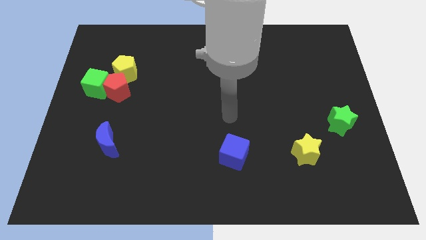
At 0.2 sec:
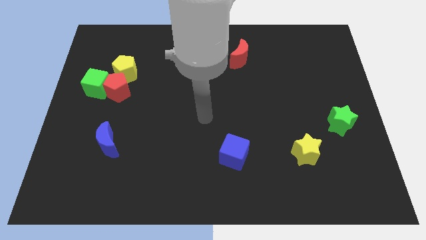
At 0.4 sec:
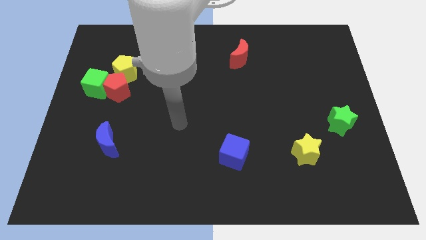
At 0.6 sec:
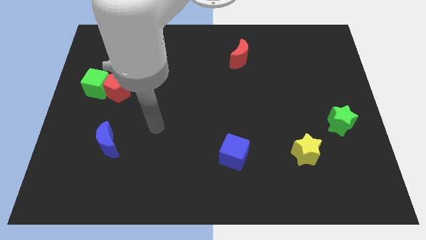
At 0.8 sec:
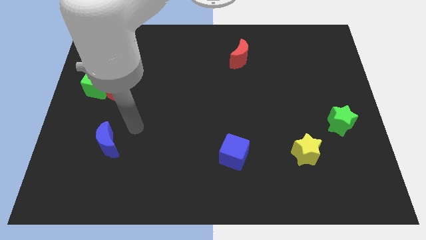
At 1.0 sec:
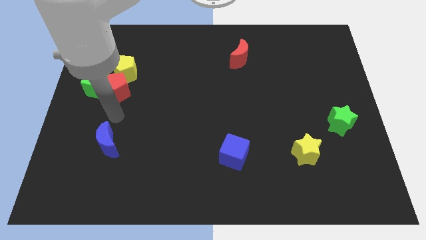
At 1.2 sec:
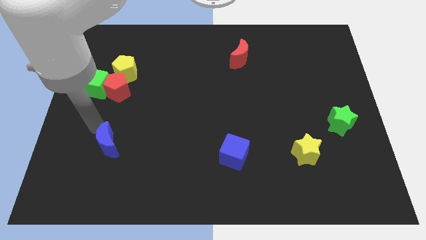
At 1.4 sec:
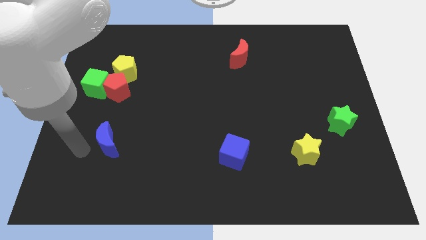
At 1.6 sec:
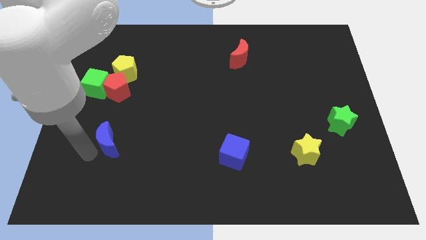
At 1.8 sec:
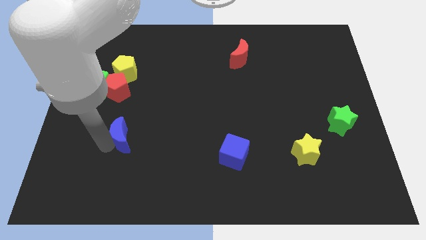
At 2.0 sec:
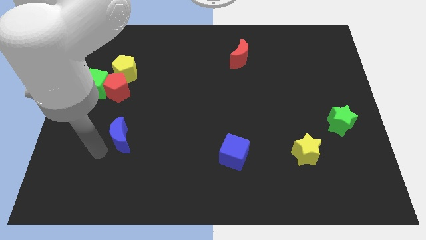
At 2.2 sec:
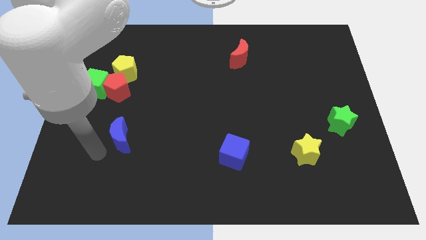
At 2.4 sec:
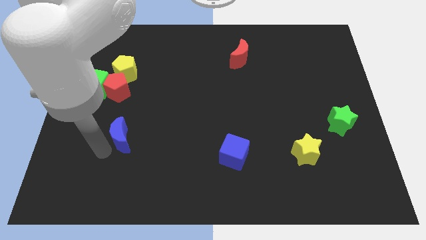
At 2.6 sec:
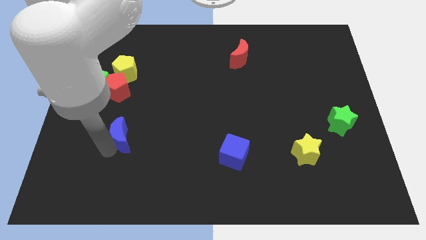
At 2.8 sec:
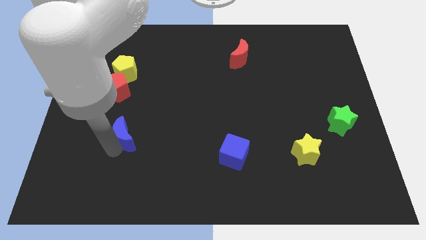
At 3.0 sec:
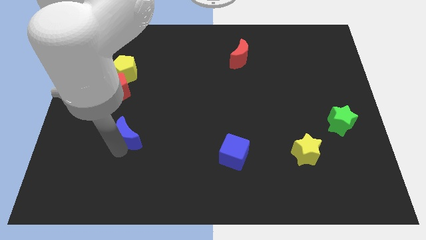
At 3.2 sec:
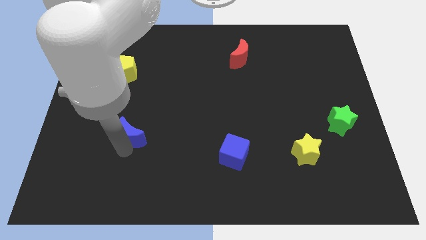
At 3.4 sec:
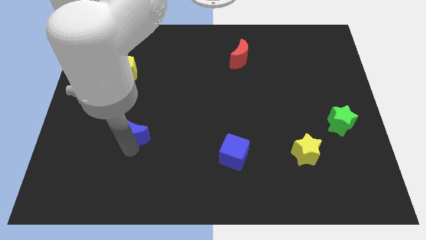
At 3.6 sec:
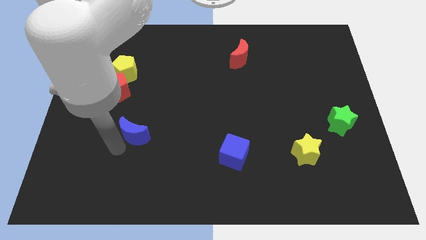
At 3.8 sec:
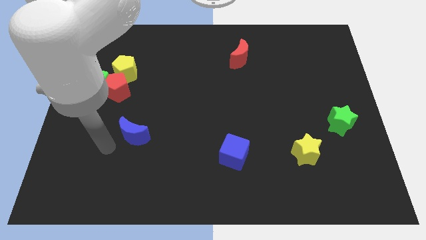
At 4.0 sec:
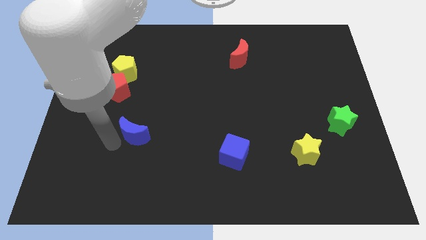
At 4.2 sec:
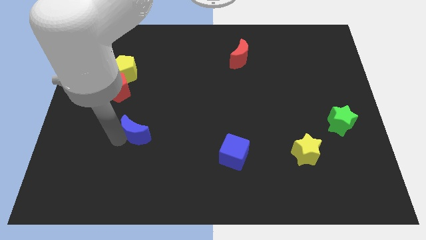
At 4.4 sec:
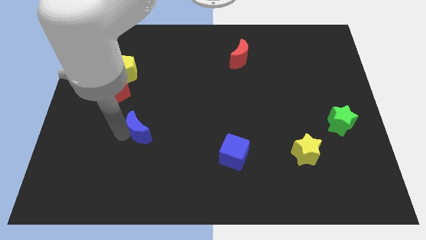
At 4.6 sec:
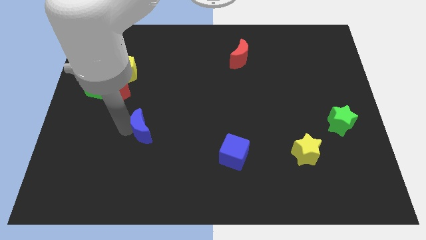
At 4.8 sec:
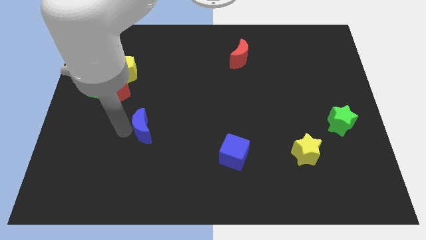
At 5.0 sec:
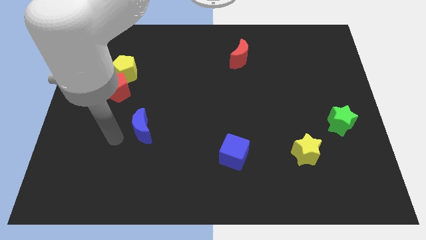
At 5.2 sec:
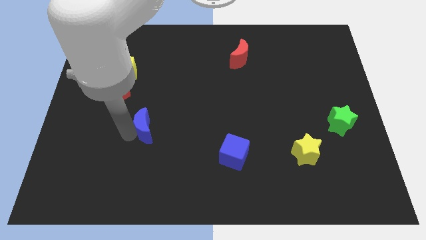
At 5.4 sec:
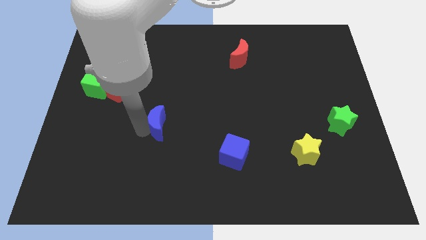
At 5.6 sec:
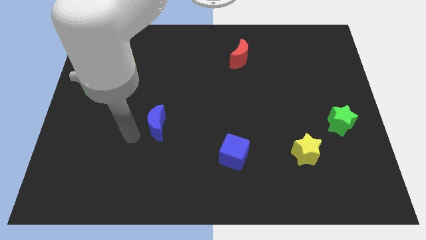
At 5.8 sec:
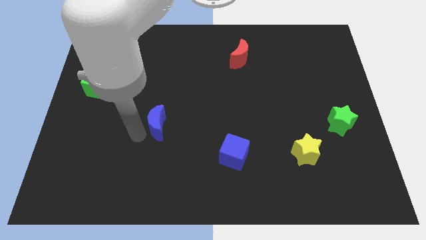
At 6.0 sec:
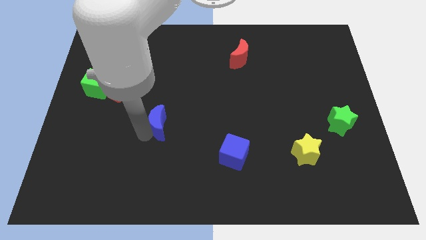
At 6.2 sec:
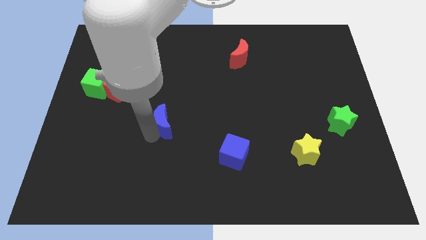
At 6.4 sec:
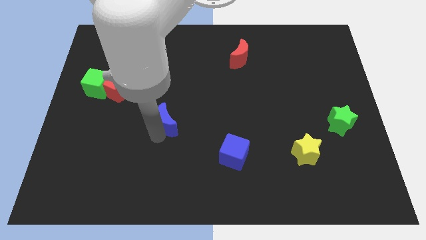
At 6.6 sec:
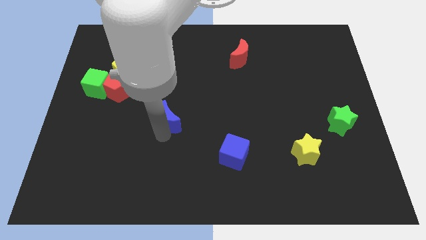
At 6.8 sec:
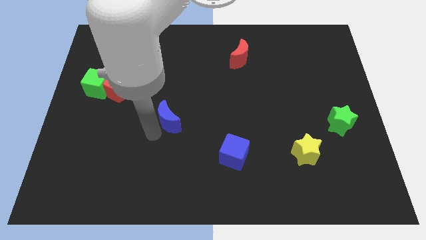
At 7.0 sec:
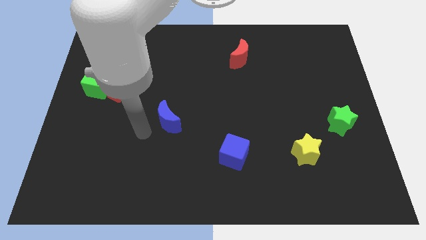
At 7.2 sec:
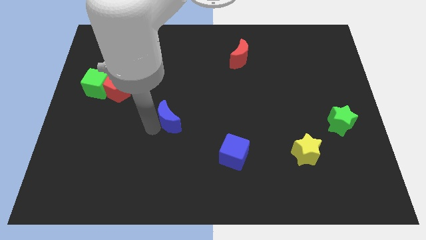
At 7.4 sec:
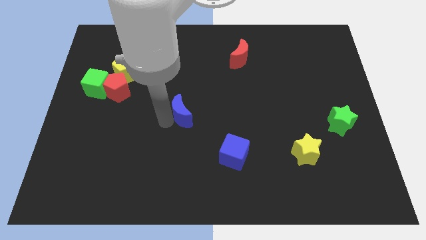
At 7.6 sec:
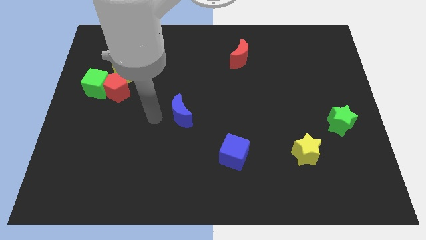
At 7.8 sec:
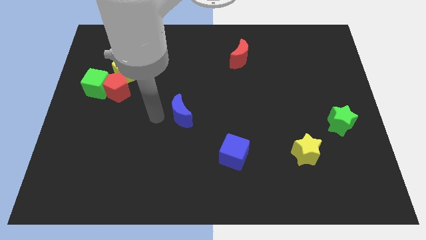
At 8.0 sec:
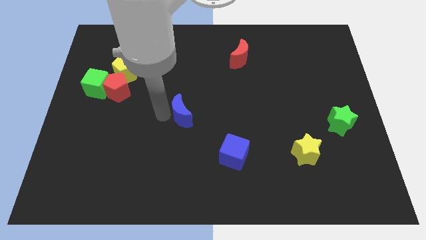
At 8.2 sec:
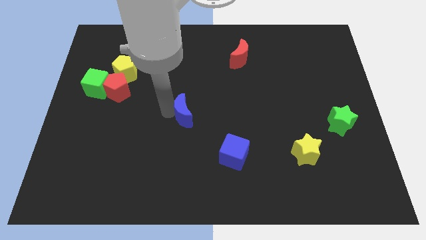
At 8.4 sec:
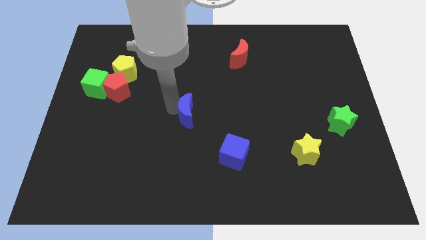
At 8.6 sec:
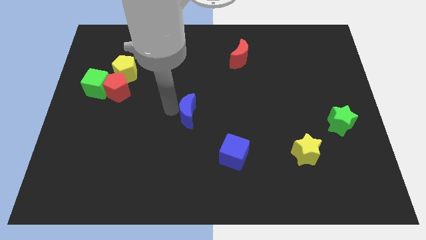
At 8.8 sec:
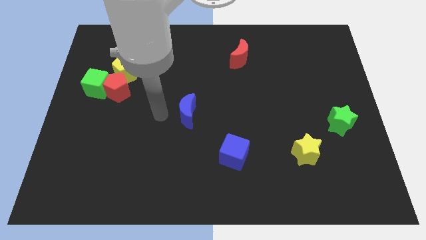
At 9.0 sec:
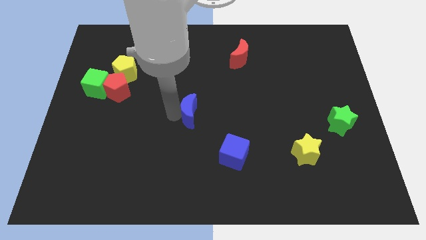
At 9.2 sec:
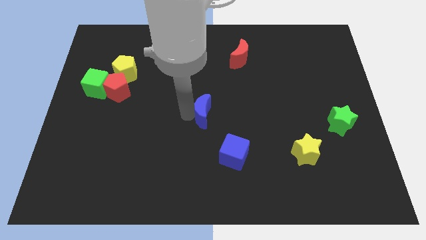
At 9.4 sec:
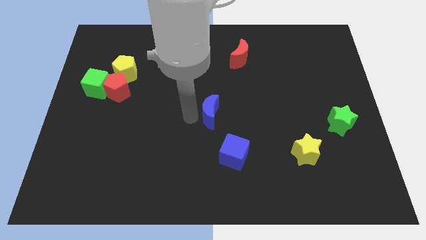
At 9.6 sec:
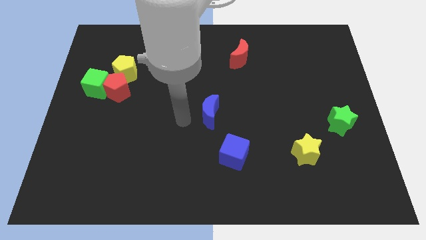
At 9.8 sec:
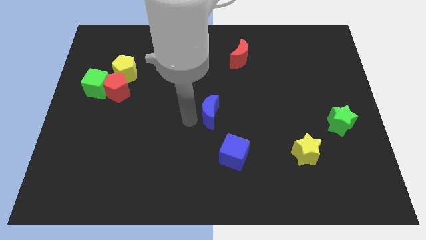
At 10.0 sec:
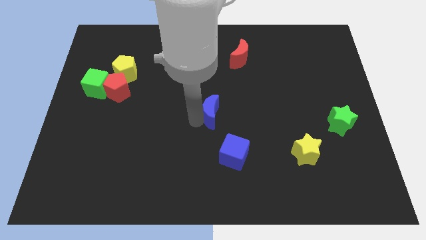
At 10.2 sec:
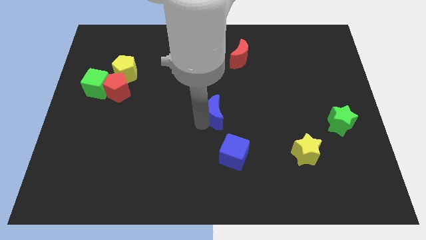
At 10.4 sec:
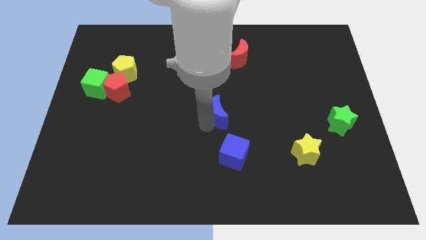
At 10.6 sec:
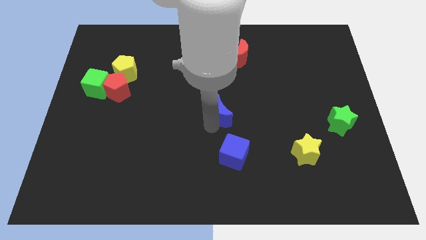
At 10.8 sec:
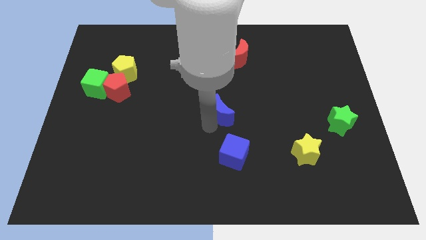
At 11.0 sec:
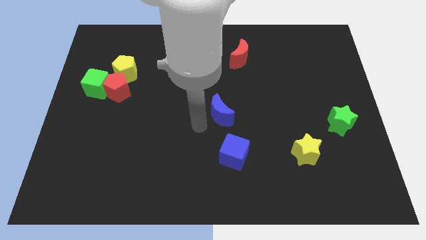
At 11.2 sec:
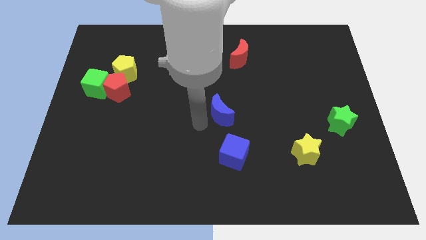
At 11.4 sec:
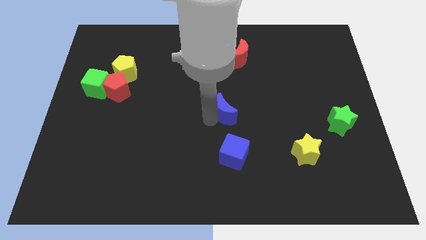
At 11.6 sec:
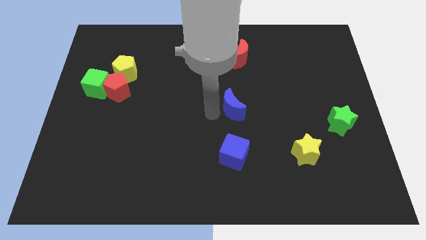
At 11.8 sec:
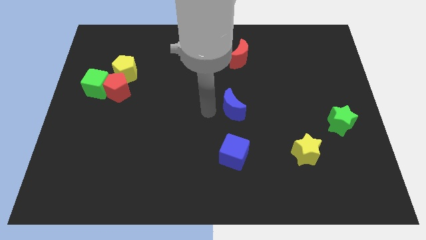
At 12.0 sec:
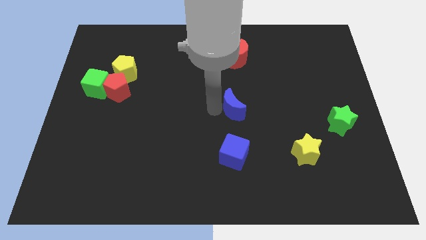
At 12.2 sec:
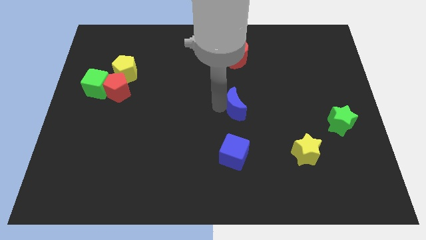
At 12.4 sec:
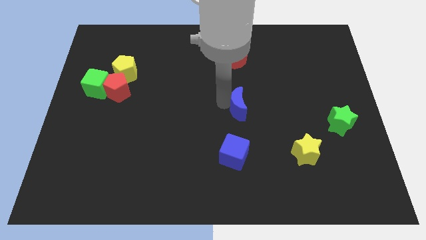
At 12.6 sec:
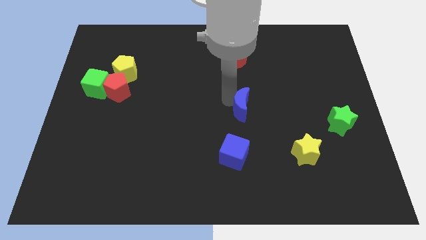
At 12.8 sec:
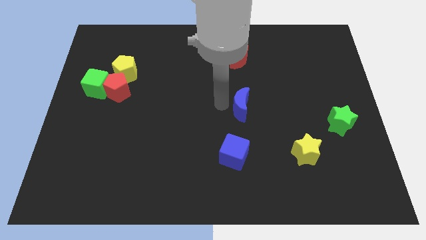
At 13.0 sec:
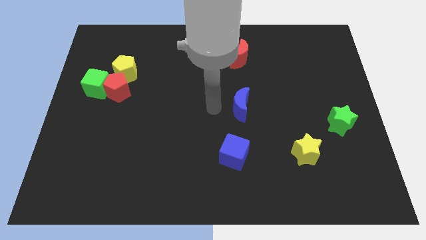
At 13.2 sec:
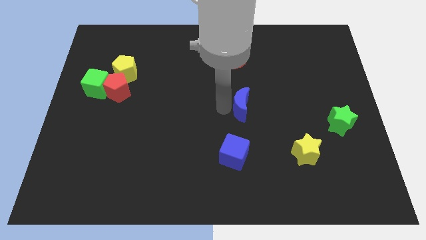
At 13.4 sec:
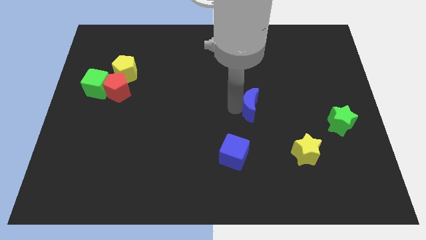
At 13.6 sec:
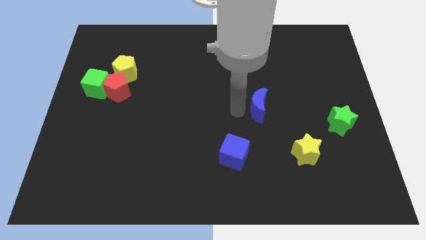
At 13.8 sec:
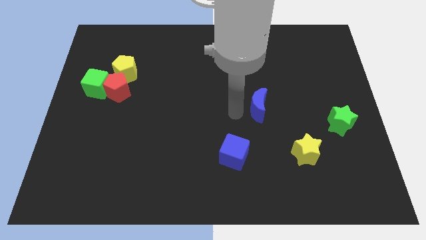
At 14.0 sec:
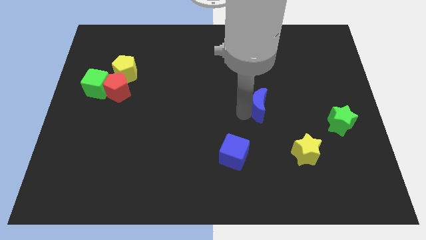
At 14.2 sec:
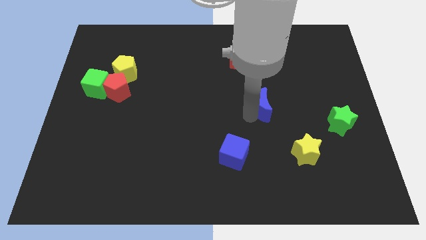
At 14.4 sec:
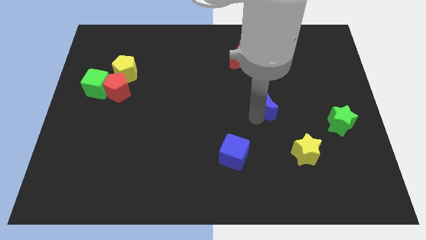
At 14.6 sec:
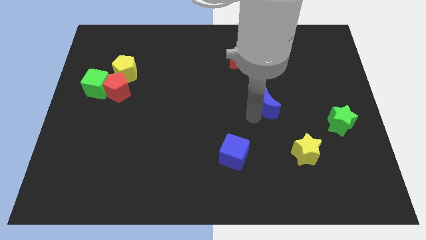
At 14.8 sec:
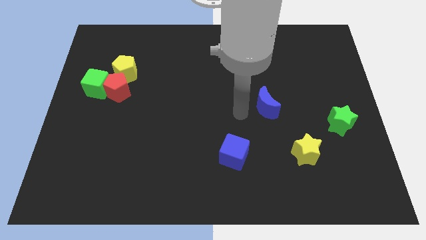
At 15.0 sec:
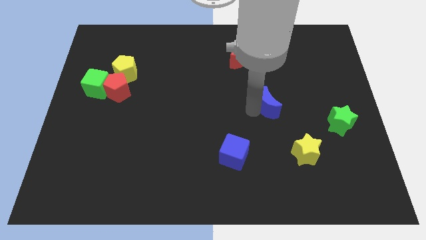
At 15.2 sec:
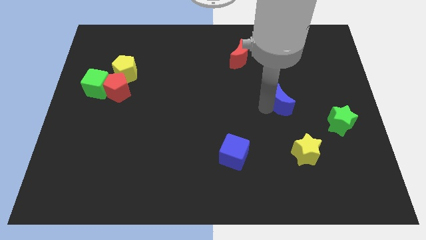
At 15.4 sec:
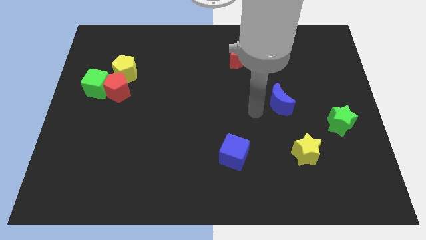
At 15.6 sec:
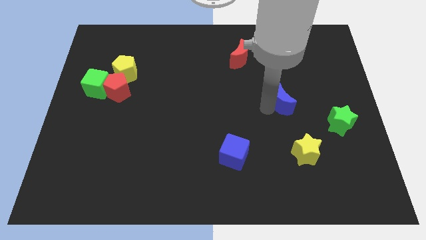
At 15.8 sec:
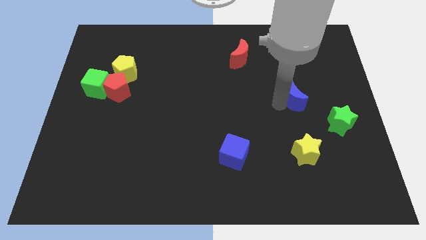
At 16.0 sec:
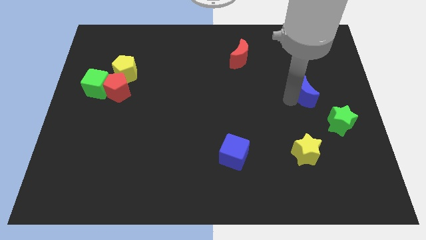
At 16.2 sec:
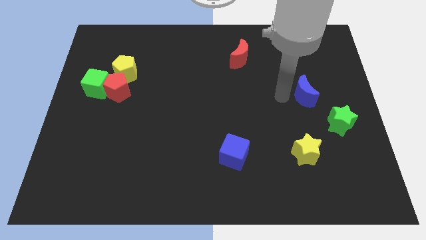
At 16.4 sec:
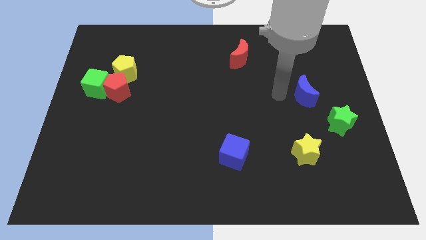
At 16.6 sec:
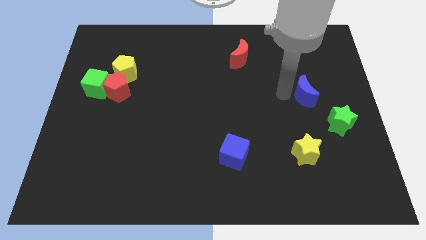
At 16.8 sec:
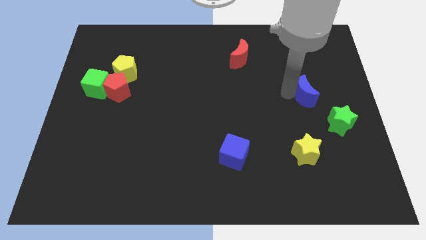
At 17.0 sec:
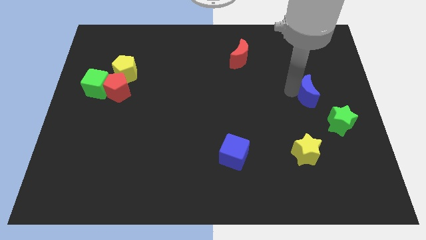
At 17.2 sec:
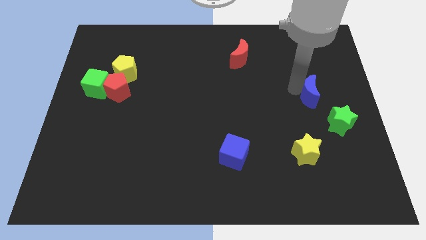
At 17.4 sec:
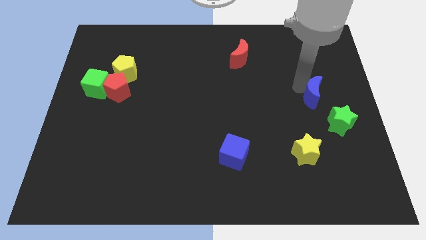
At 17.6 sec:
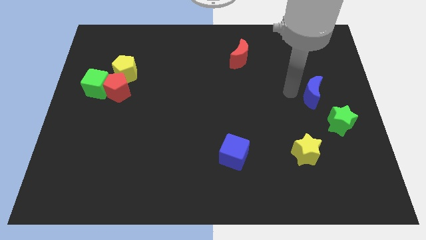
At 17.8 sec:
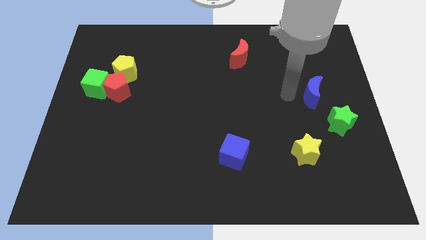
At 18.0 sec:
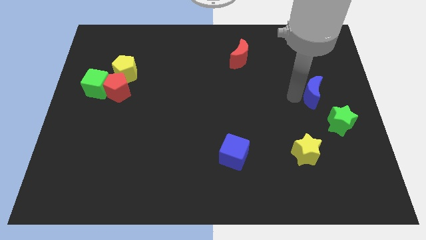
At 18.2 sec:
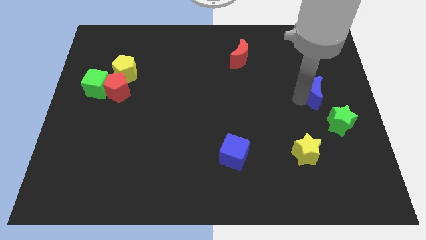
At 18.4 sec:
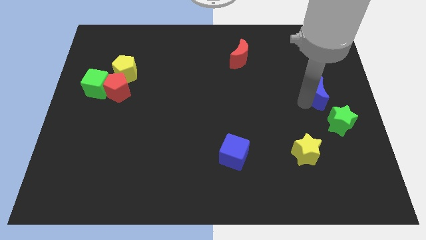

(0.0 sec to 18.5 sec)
push the blue moon to the right side of the board
